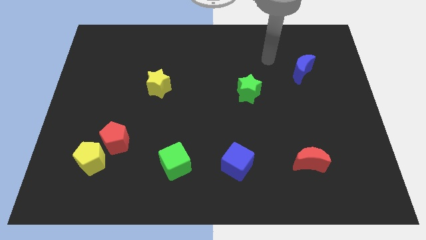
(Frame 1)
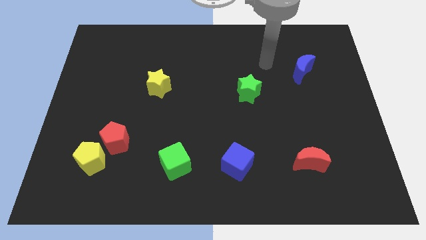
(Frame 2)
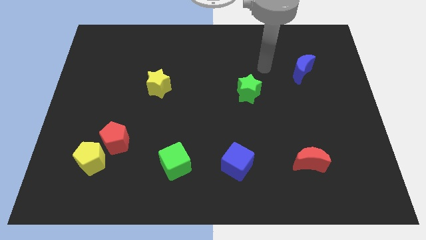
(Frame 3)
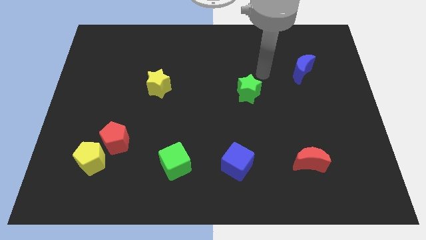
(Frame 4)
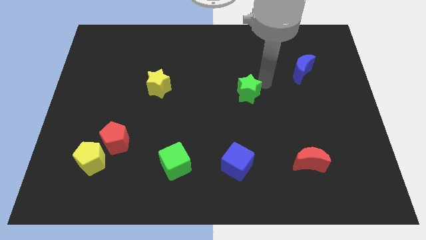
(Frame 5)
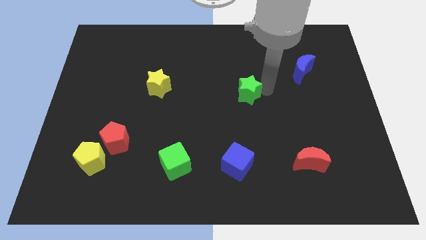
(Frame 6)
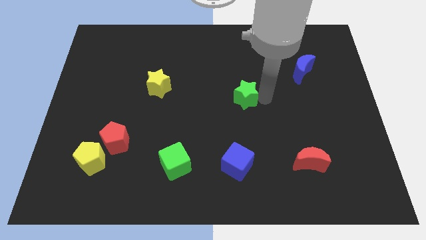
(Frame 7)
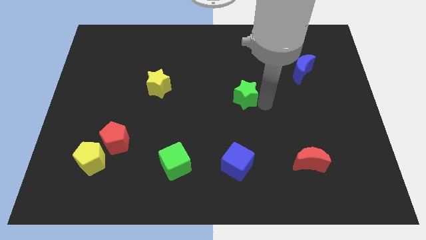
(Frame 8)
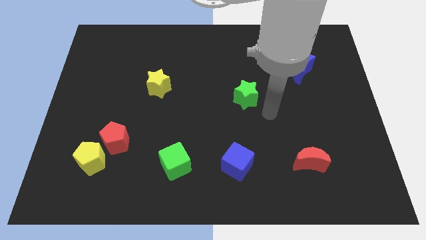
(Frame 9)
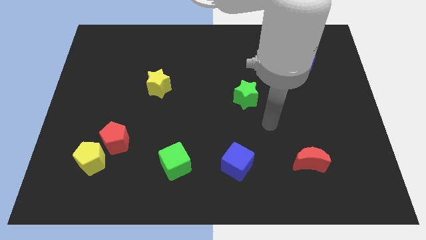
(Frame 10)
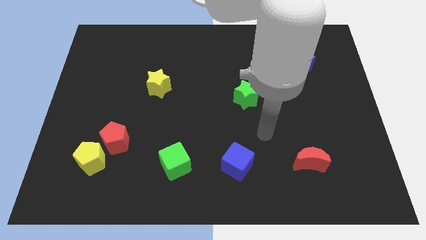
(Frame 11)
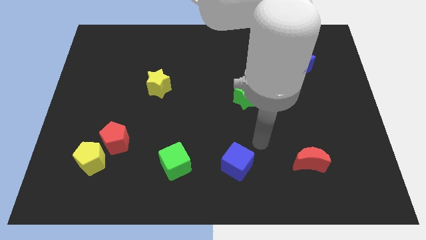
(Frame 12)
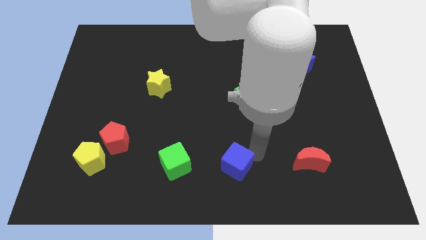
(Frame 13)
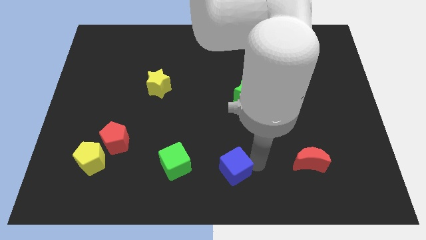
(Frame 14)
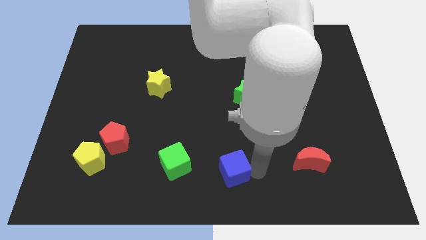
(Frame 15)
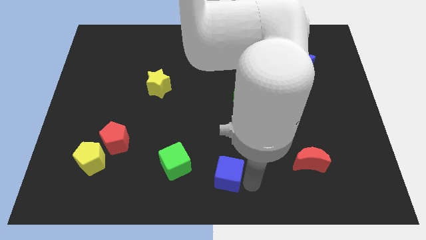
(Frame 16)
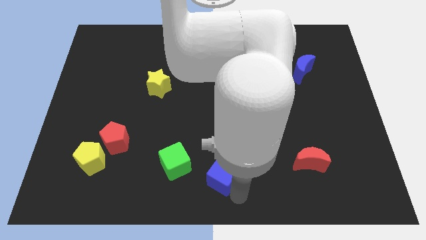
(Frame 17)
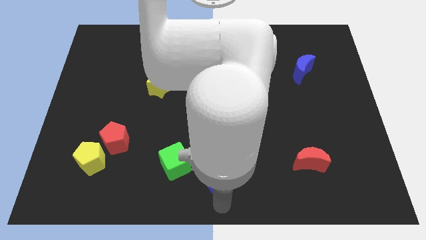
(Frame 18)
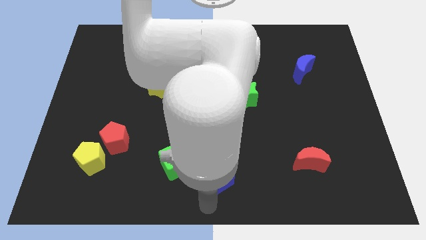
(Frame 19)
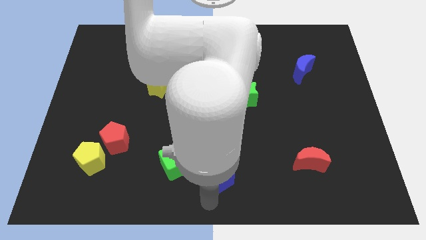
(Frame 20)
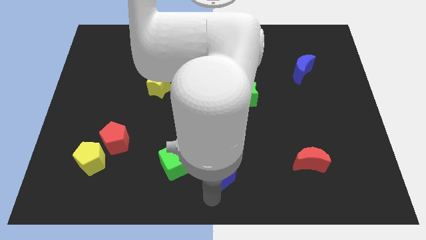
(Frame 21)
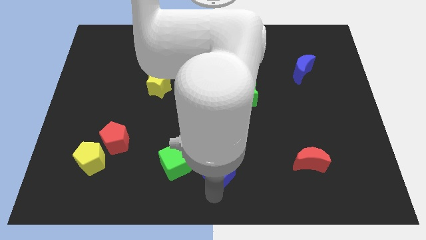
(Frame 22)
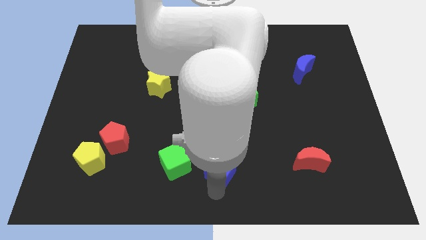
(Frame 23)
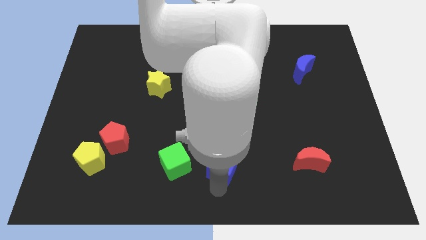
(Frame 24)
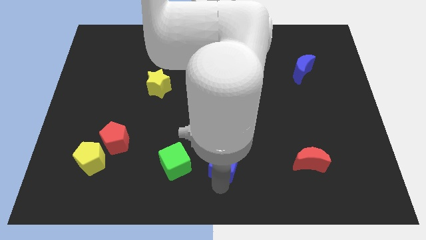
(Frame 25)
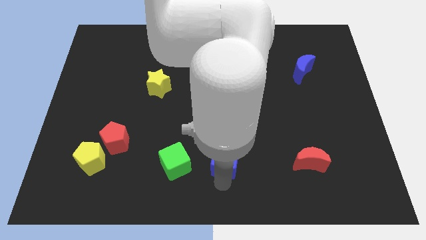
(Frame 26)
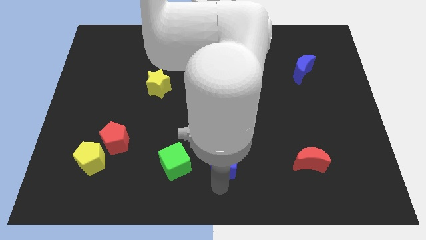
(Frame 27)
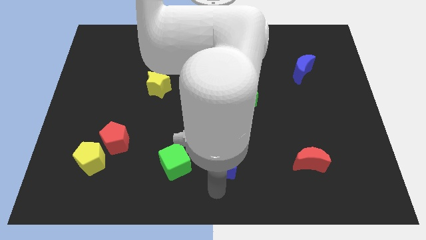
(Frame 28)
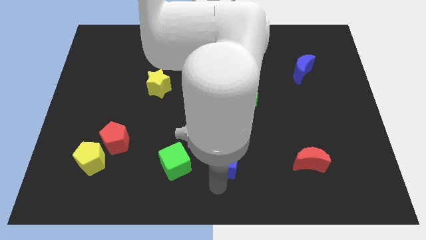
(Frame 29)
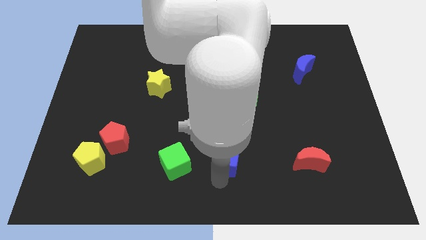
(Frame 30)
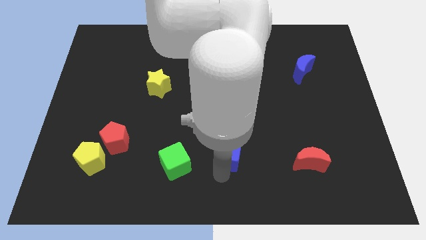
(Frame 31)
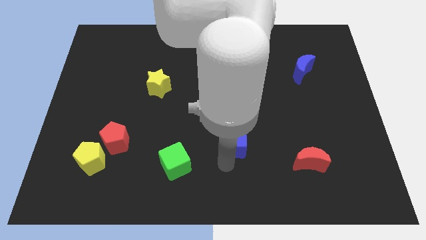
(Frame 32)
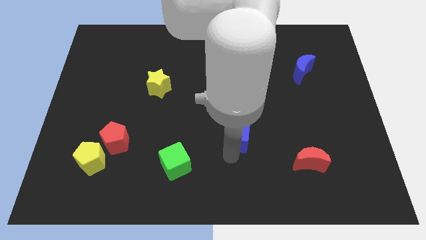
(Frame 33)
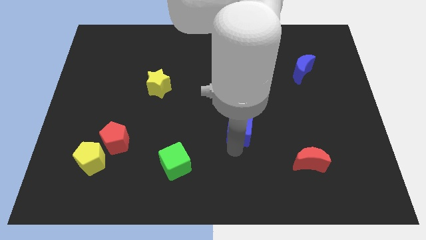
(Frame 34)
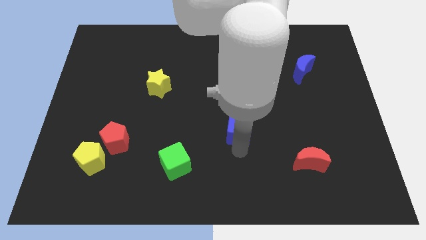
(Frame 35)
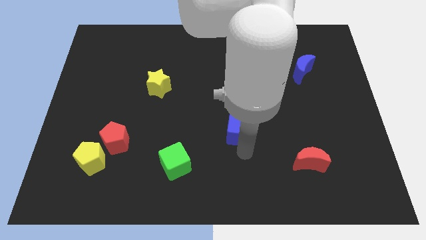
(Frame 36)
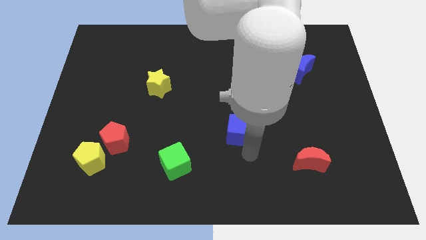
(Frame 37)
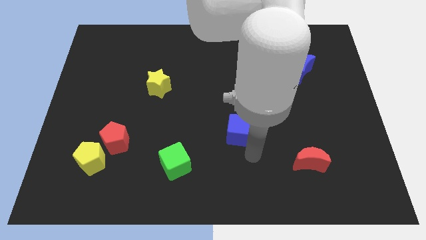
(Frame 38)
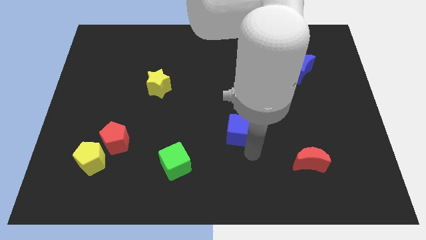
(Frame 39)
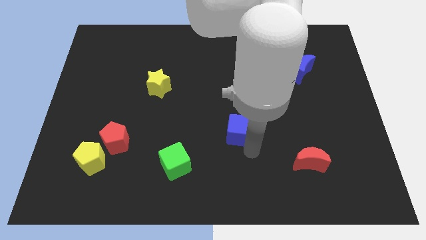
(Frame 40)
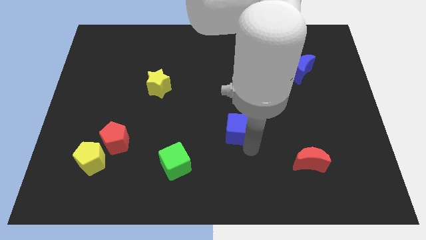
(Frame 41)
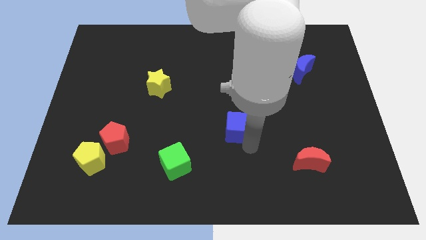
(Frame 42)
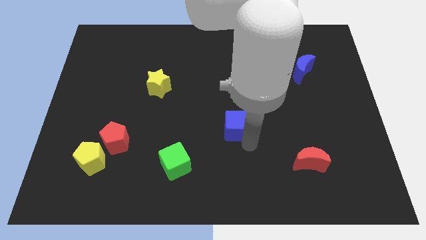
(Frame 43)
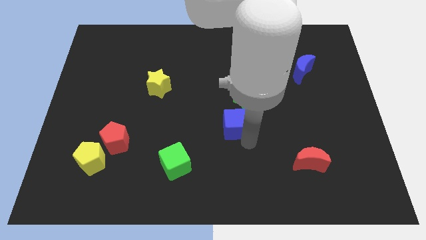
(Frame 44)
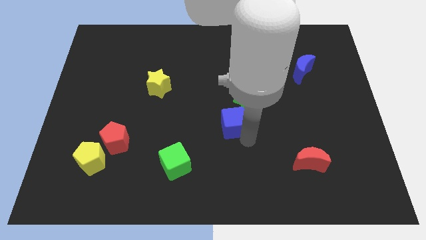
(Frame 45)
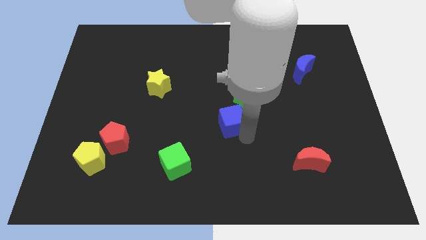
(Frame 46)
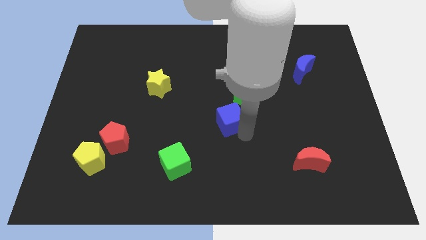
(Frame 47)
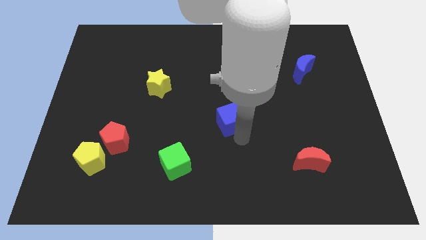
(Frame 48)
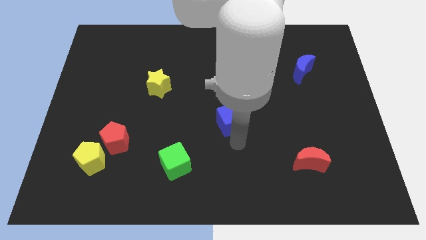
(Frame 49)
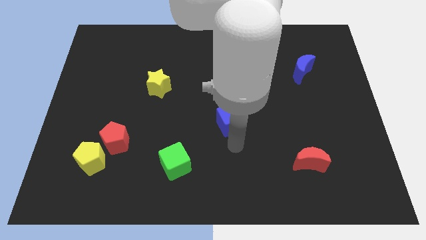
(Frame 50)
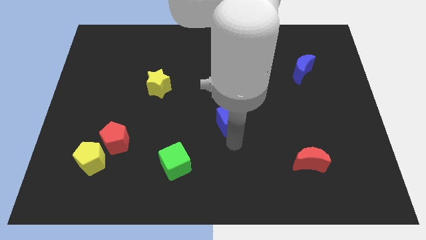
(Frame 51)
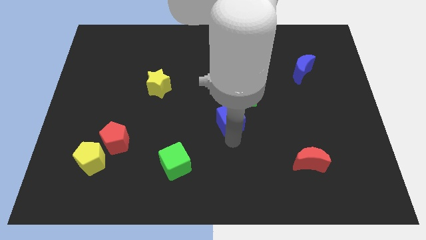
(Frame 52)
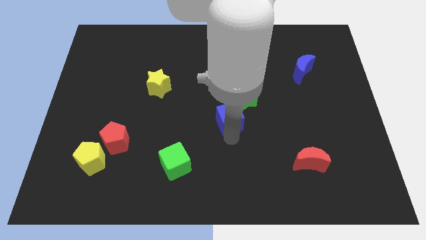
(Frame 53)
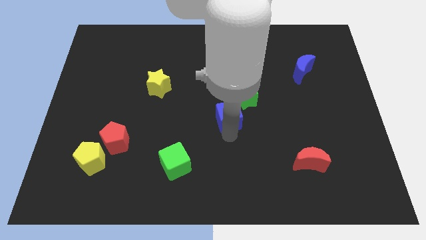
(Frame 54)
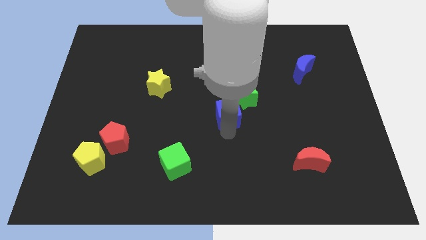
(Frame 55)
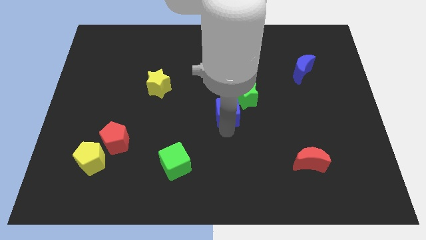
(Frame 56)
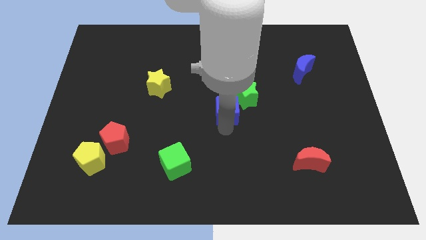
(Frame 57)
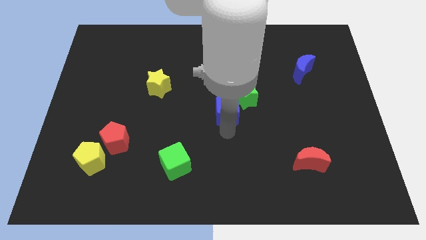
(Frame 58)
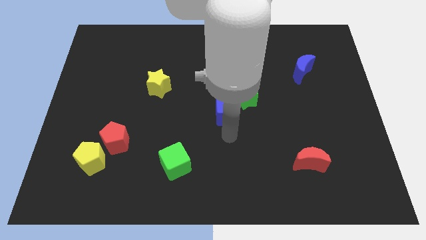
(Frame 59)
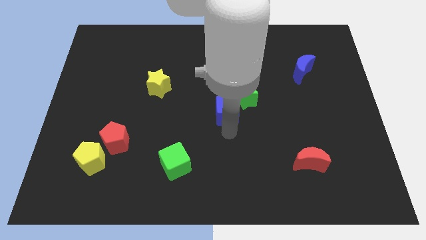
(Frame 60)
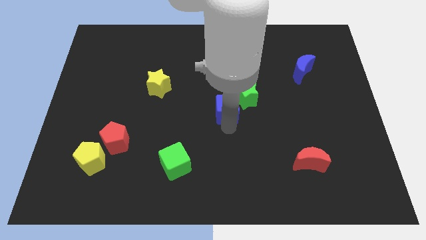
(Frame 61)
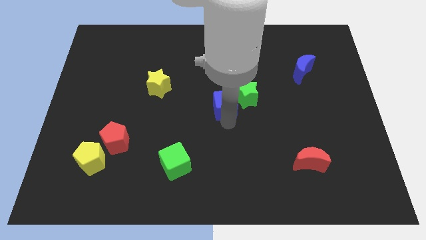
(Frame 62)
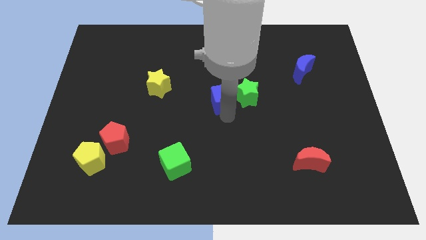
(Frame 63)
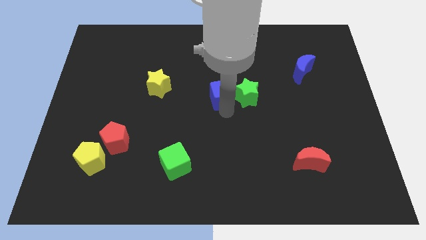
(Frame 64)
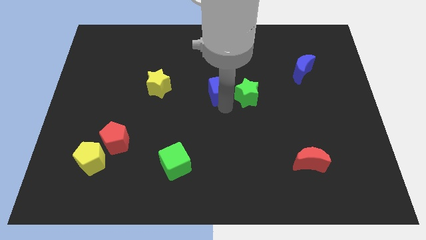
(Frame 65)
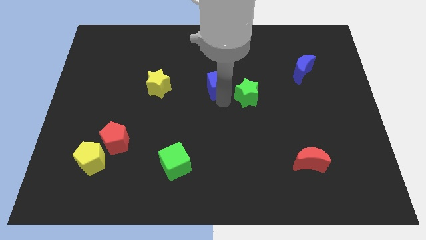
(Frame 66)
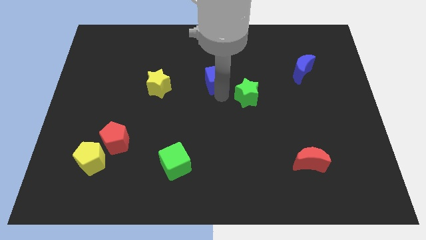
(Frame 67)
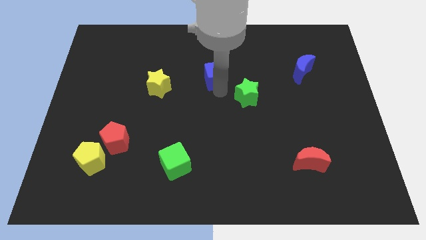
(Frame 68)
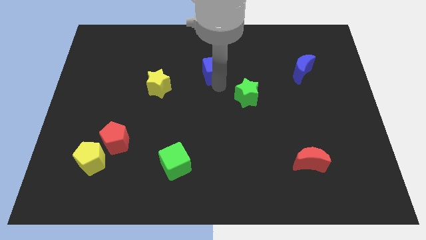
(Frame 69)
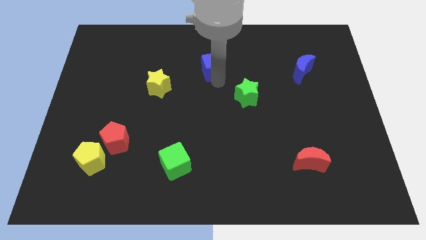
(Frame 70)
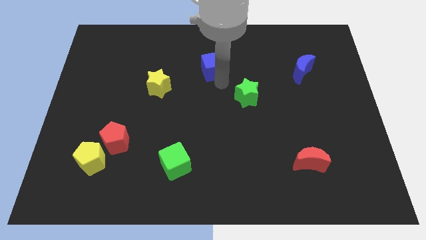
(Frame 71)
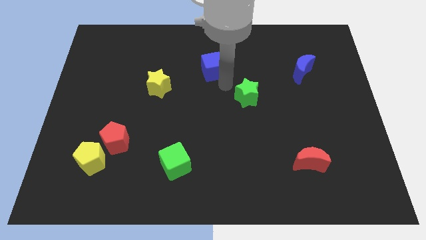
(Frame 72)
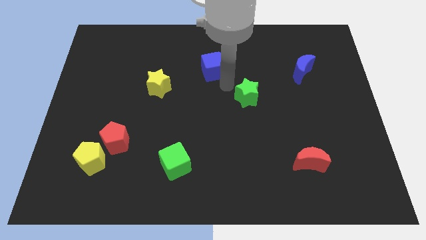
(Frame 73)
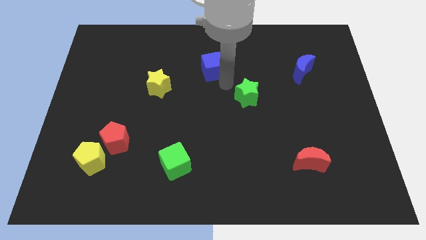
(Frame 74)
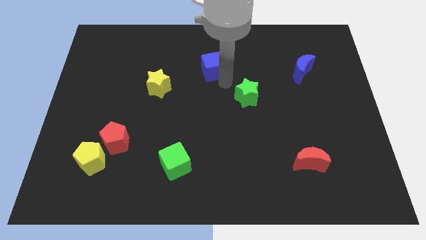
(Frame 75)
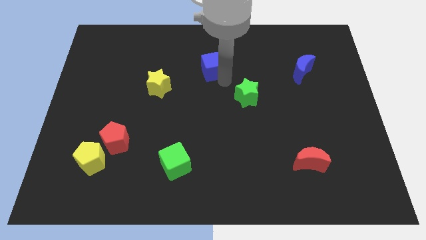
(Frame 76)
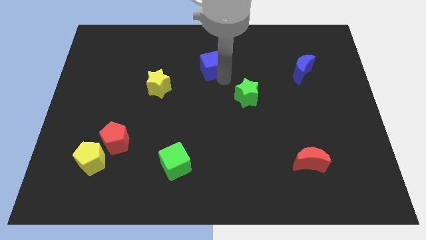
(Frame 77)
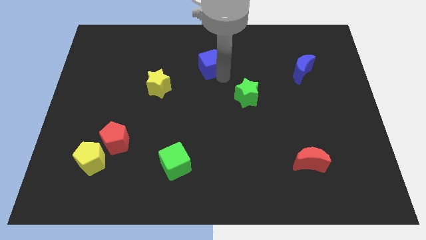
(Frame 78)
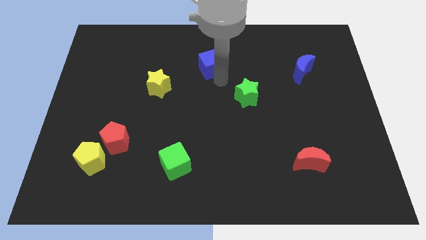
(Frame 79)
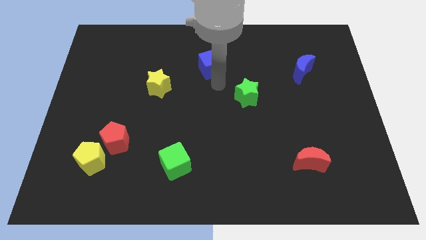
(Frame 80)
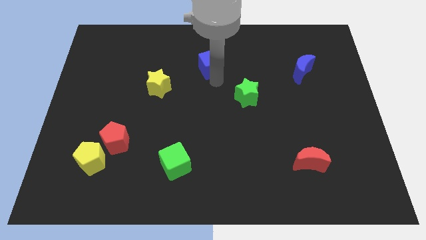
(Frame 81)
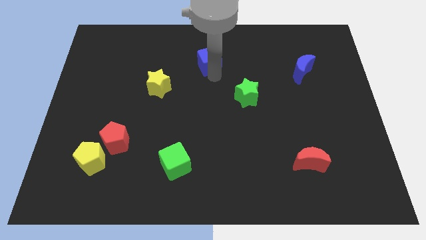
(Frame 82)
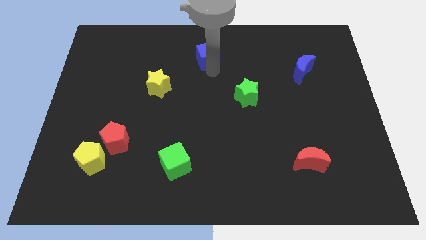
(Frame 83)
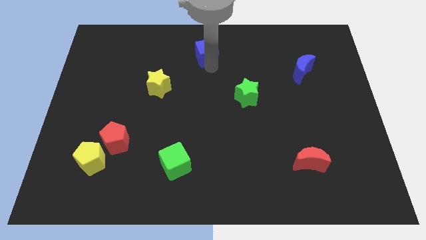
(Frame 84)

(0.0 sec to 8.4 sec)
put the blue cube to the top
